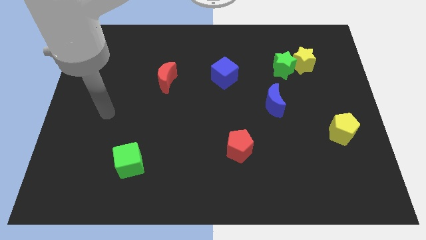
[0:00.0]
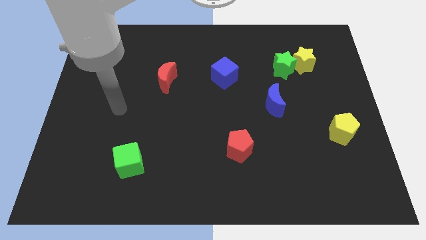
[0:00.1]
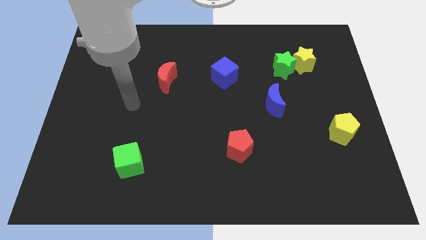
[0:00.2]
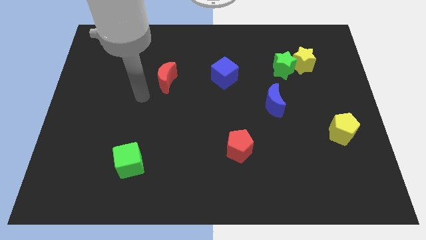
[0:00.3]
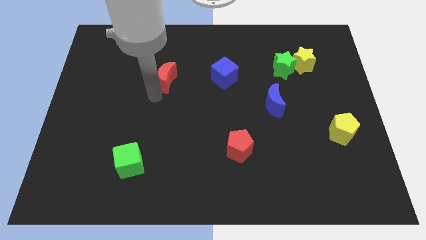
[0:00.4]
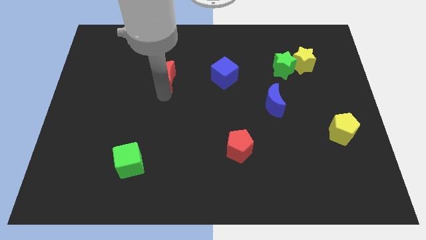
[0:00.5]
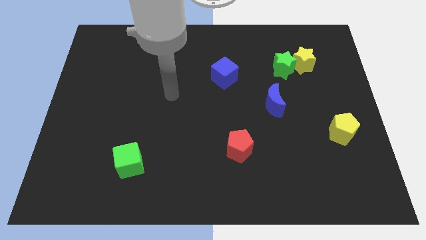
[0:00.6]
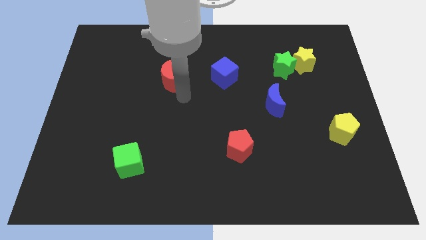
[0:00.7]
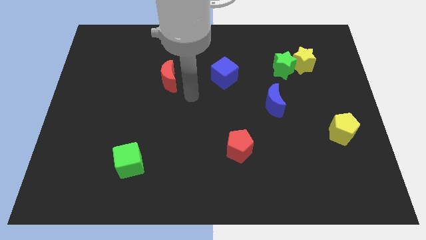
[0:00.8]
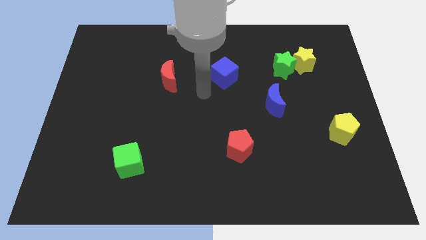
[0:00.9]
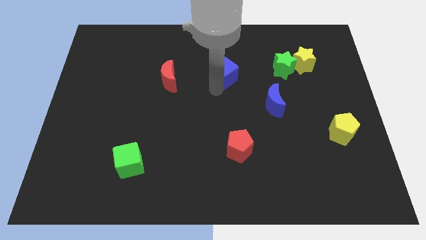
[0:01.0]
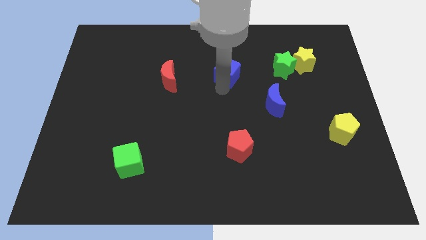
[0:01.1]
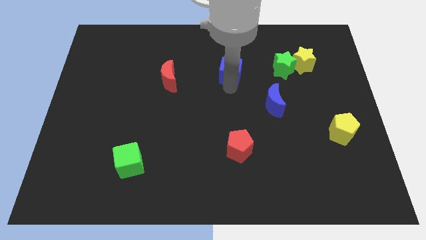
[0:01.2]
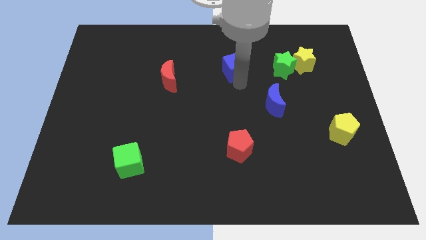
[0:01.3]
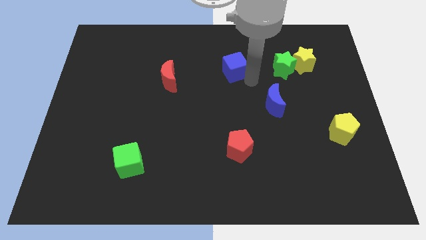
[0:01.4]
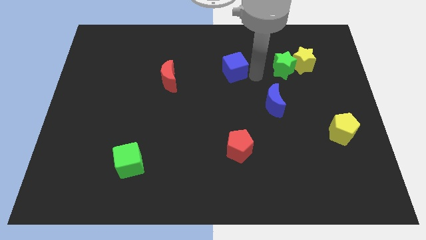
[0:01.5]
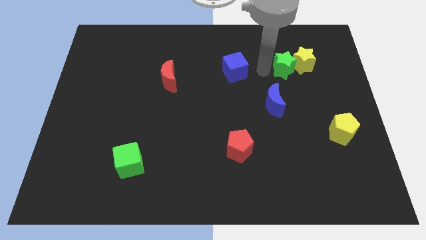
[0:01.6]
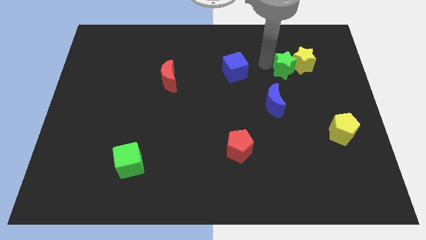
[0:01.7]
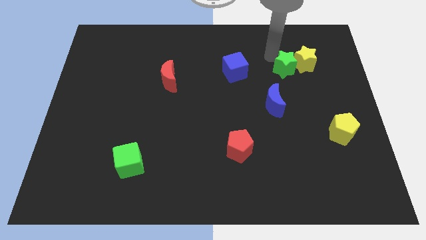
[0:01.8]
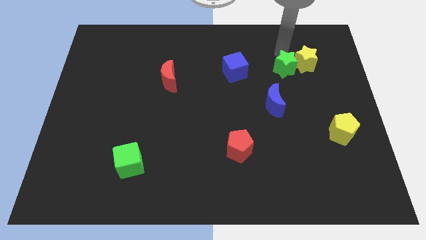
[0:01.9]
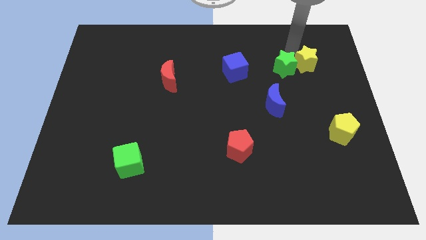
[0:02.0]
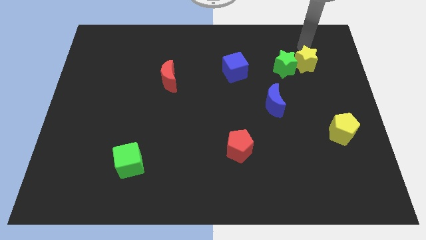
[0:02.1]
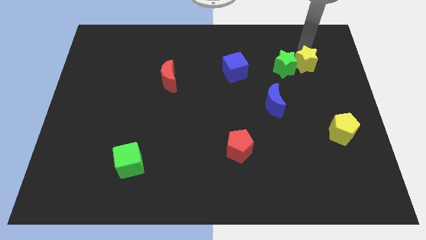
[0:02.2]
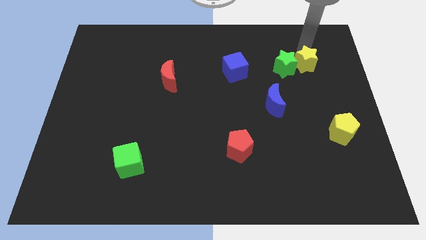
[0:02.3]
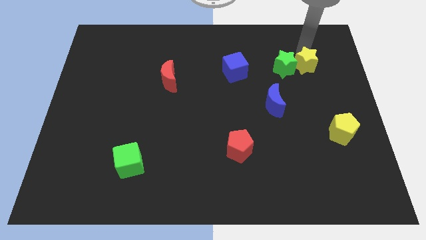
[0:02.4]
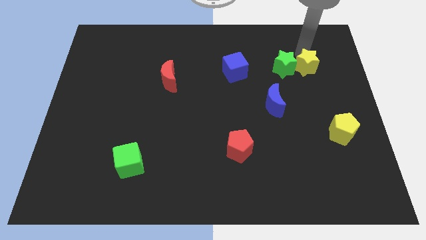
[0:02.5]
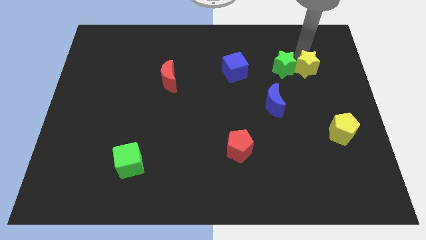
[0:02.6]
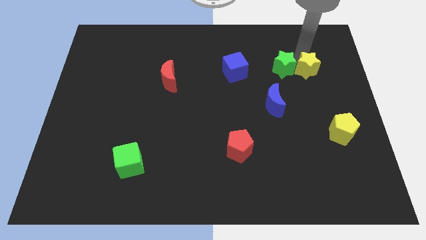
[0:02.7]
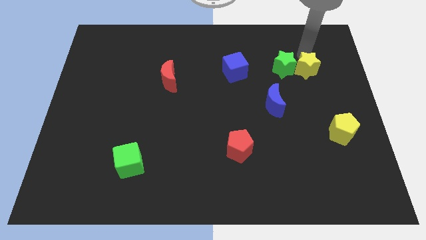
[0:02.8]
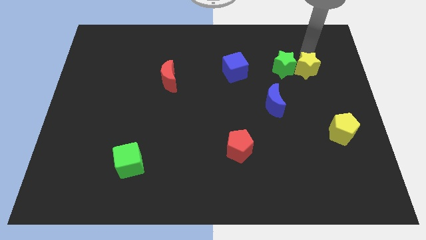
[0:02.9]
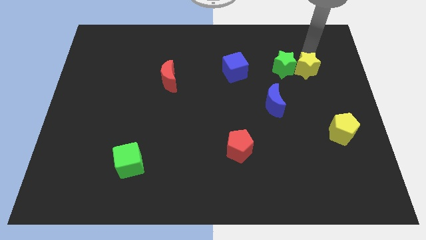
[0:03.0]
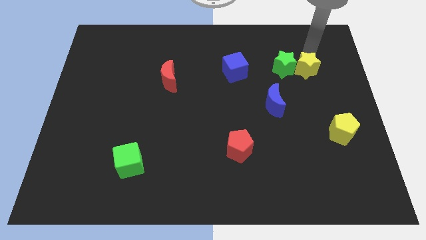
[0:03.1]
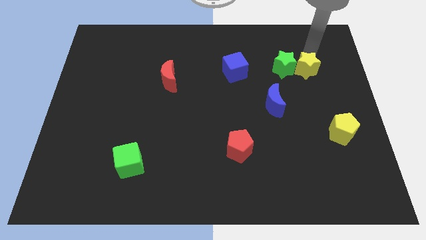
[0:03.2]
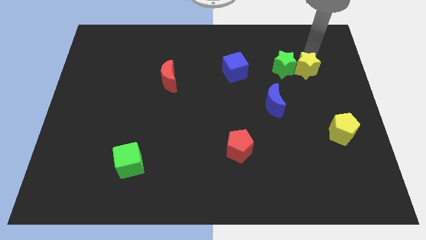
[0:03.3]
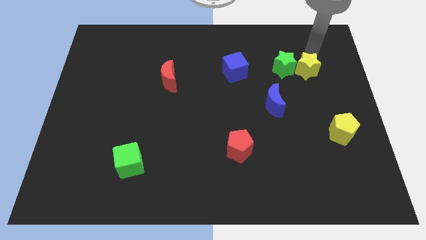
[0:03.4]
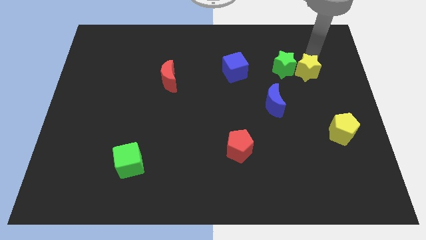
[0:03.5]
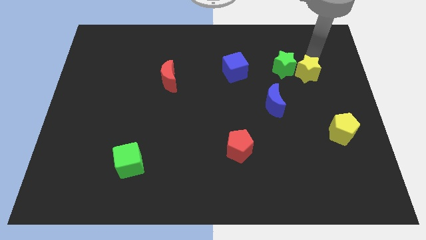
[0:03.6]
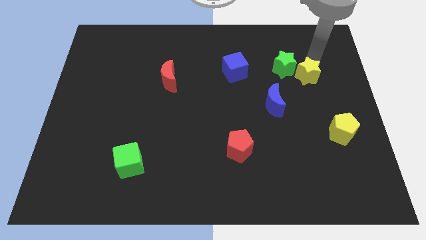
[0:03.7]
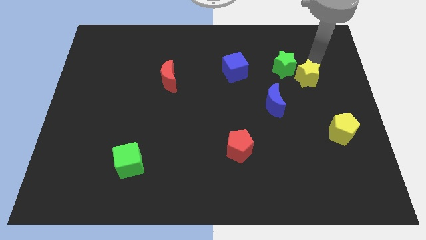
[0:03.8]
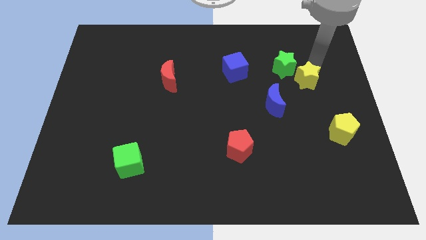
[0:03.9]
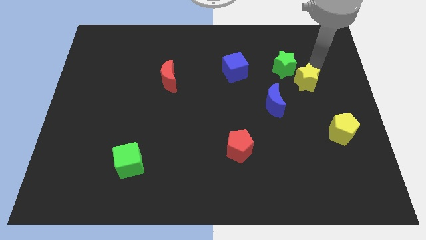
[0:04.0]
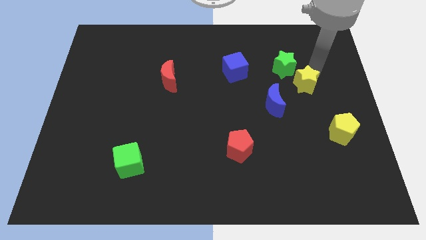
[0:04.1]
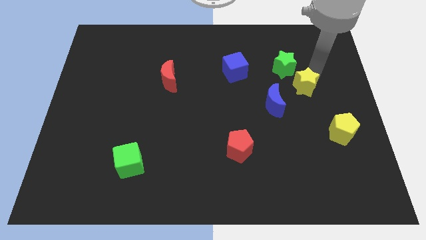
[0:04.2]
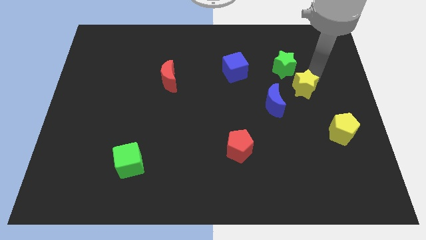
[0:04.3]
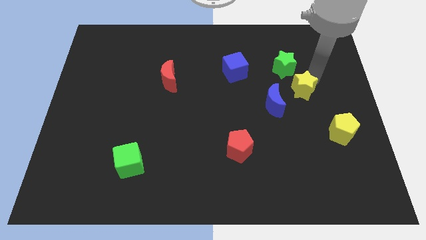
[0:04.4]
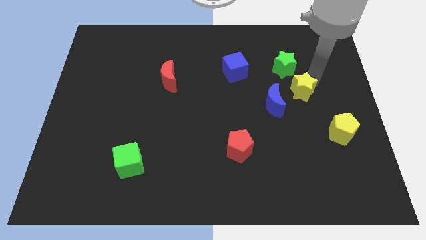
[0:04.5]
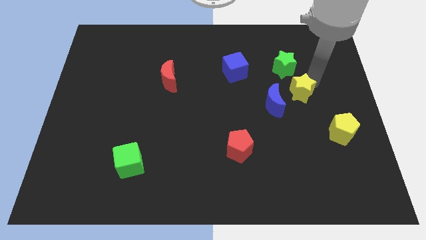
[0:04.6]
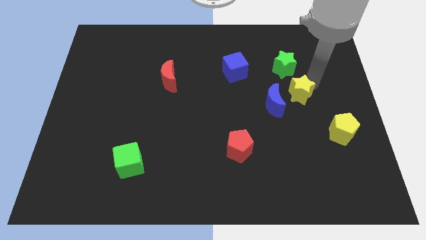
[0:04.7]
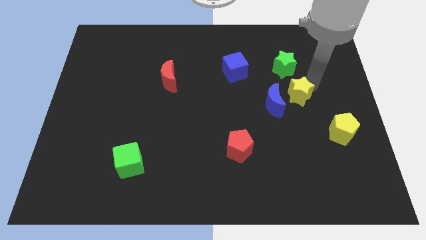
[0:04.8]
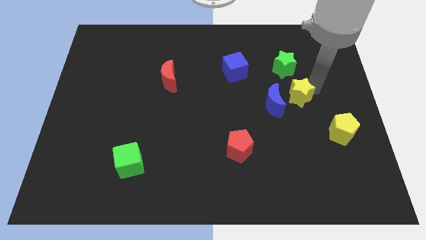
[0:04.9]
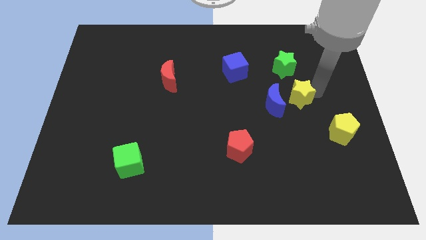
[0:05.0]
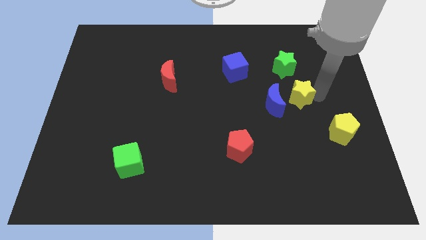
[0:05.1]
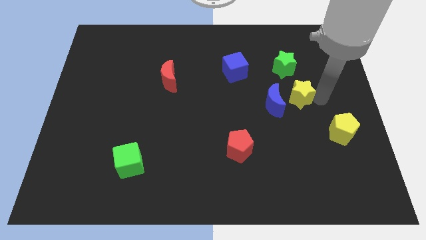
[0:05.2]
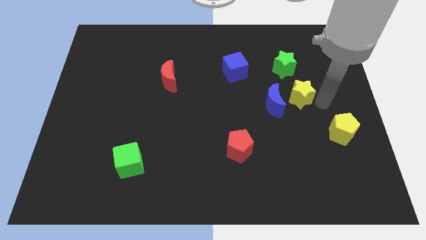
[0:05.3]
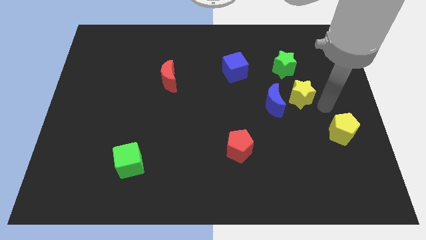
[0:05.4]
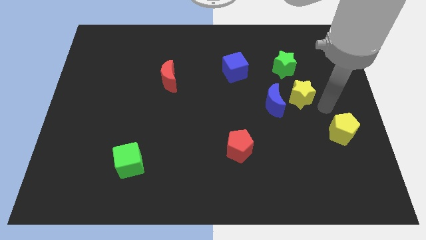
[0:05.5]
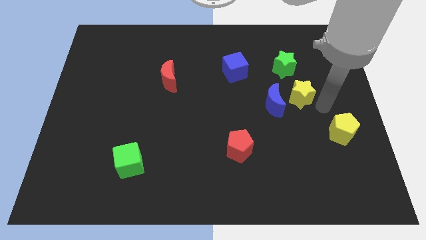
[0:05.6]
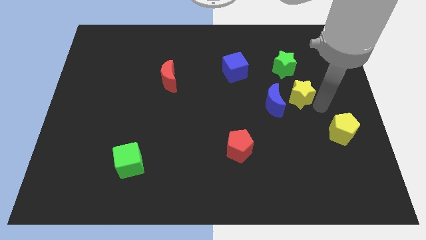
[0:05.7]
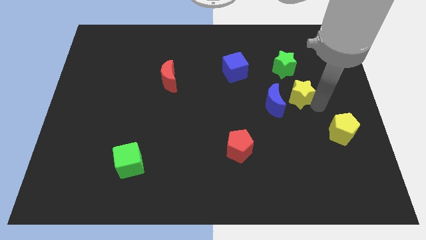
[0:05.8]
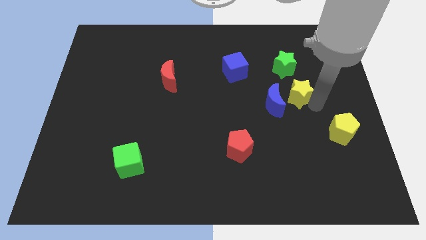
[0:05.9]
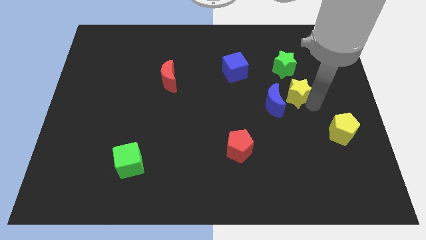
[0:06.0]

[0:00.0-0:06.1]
put the yellow star to the blue moon

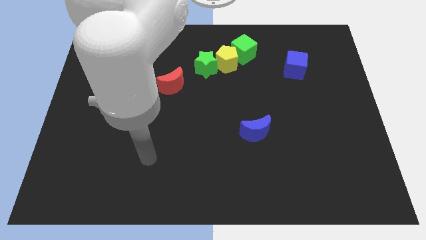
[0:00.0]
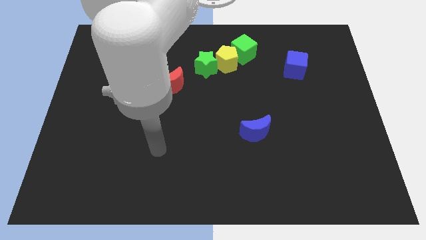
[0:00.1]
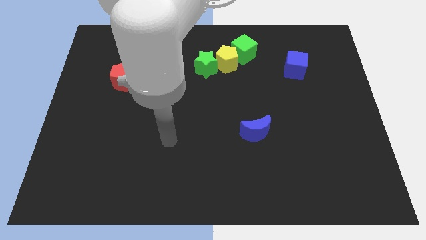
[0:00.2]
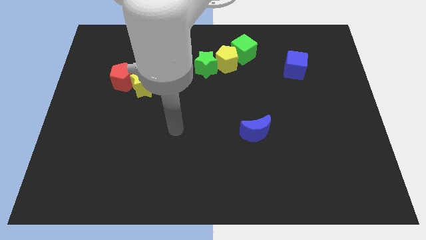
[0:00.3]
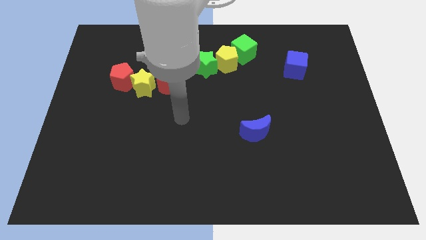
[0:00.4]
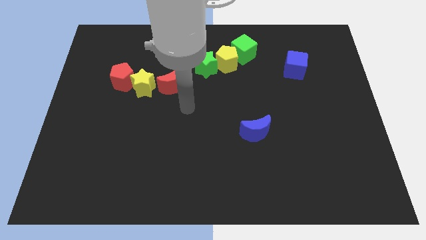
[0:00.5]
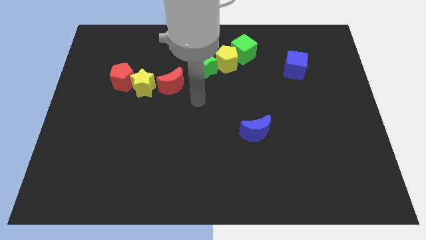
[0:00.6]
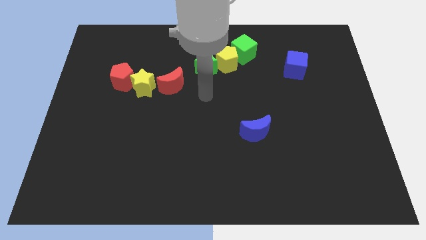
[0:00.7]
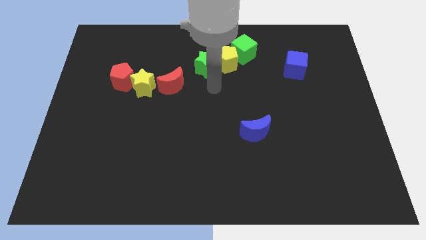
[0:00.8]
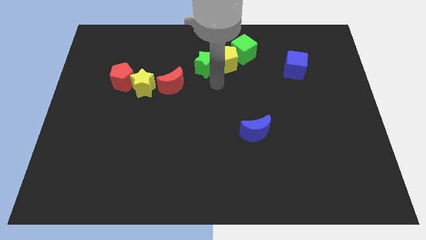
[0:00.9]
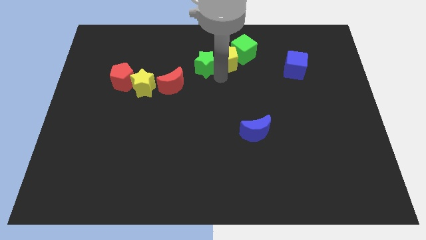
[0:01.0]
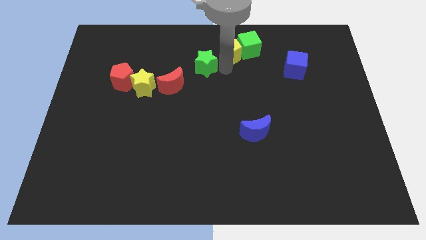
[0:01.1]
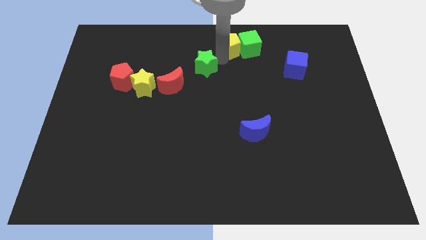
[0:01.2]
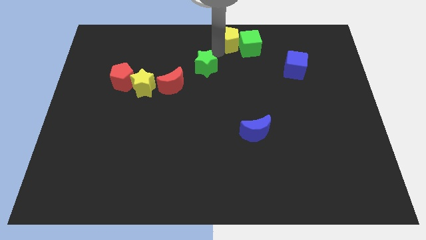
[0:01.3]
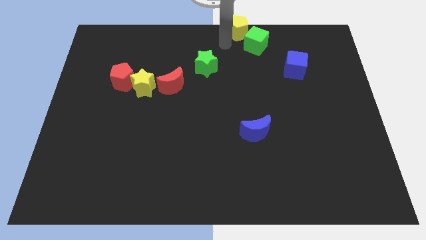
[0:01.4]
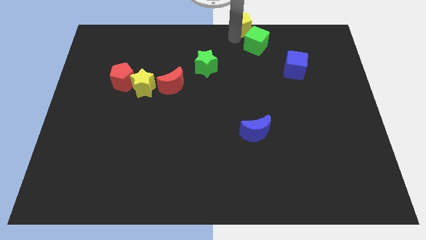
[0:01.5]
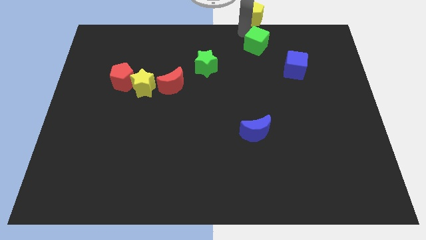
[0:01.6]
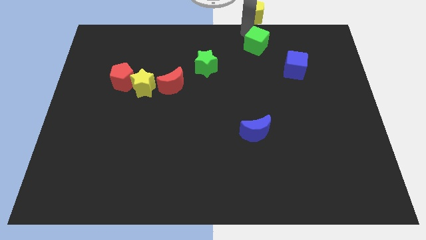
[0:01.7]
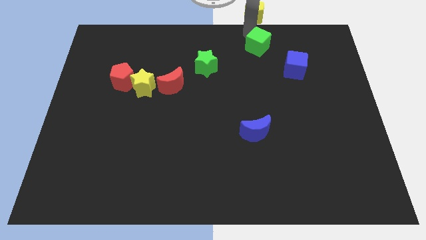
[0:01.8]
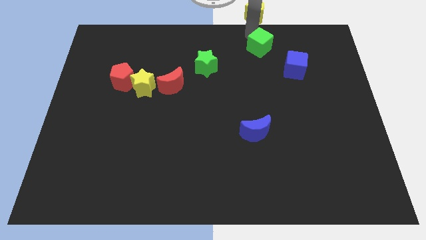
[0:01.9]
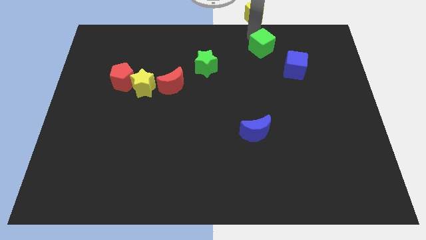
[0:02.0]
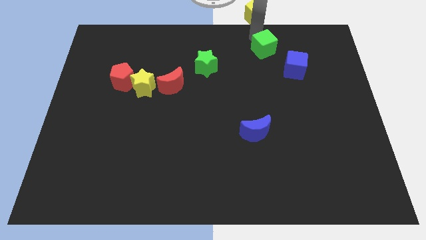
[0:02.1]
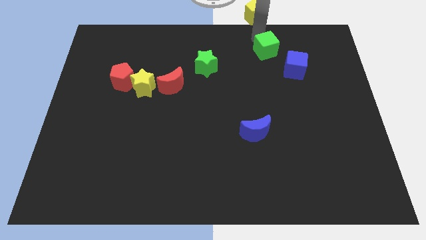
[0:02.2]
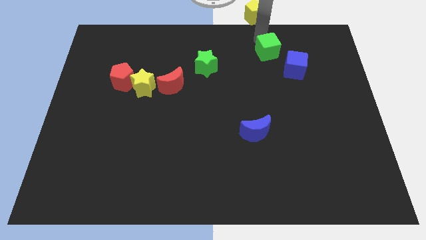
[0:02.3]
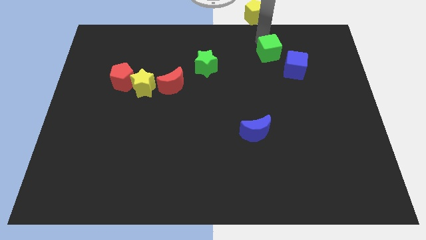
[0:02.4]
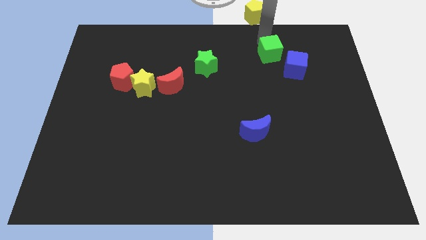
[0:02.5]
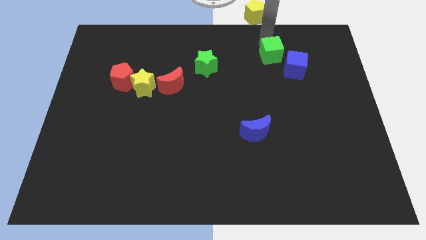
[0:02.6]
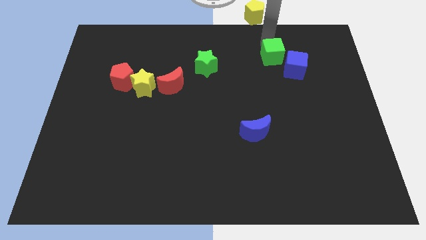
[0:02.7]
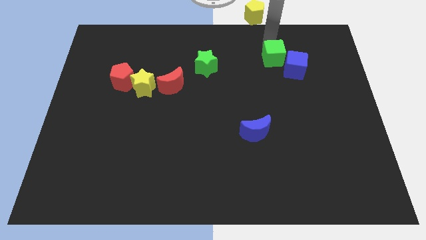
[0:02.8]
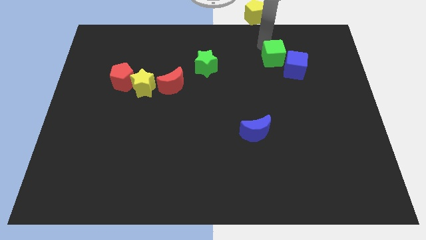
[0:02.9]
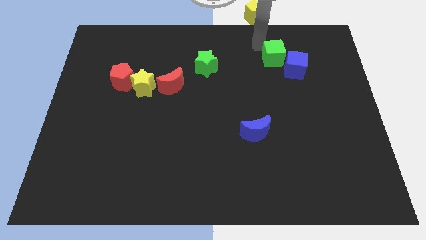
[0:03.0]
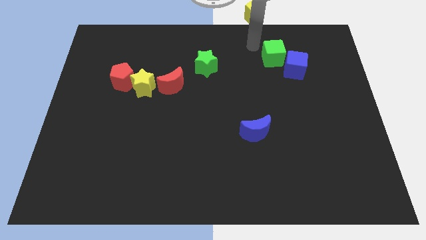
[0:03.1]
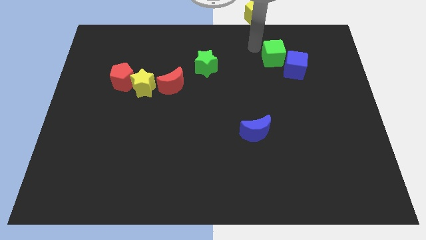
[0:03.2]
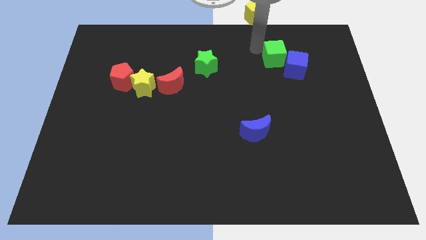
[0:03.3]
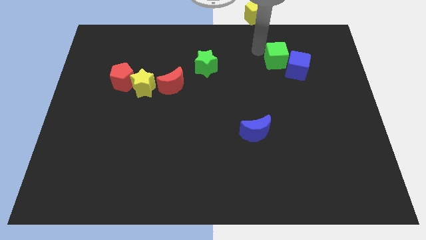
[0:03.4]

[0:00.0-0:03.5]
put the green cube next to the blue cube
